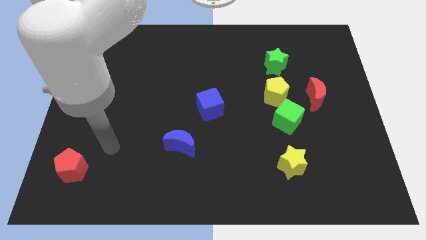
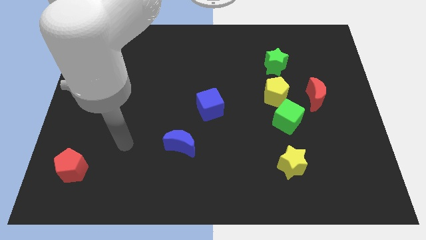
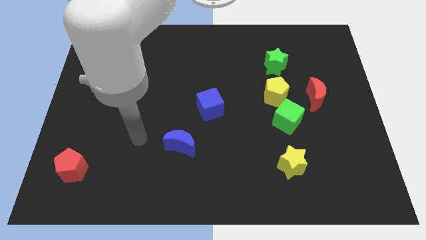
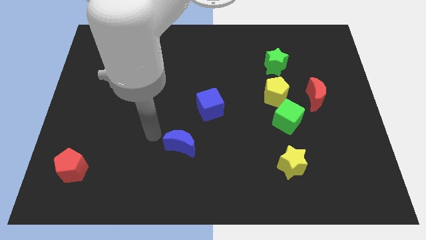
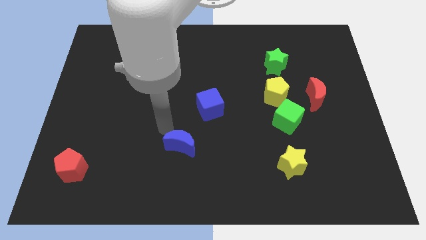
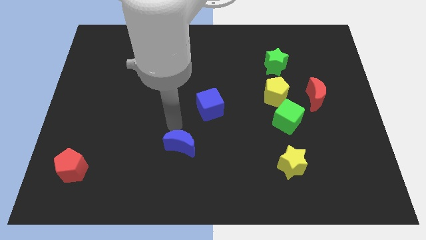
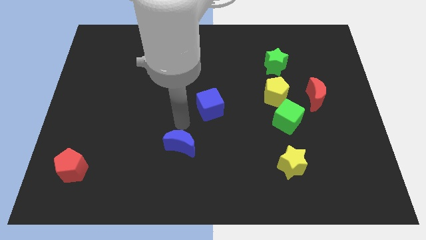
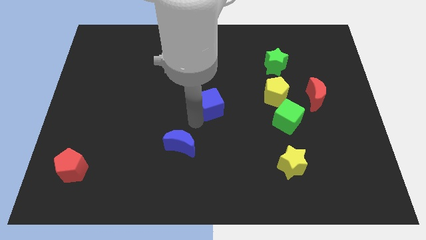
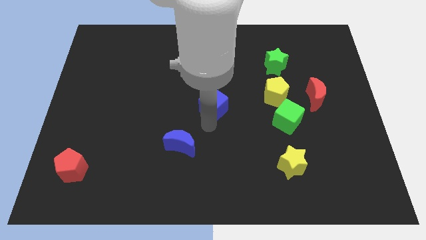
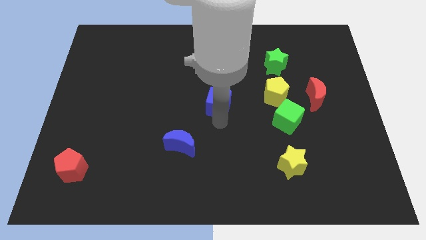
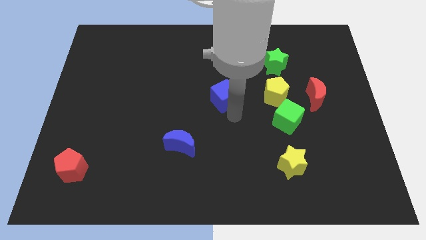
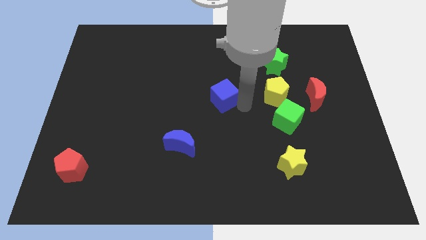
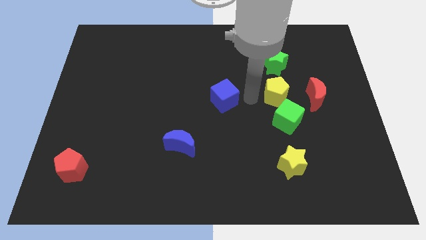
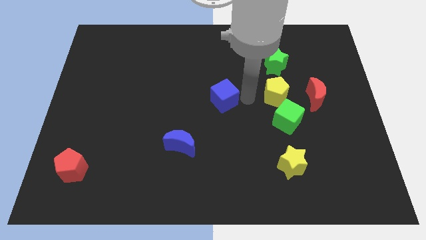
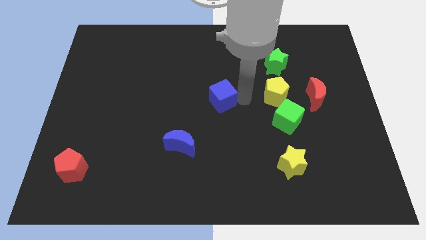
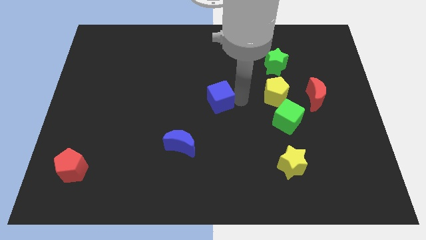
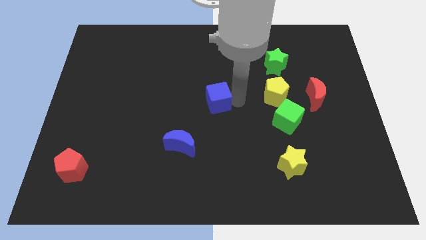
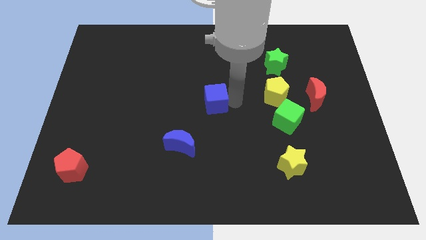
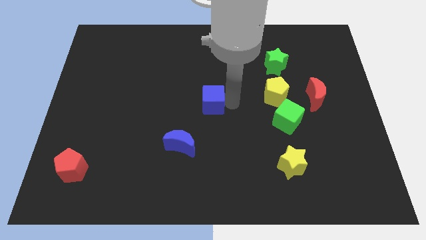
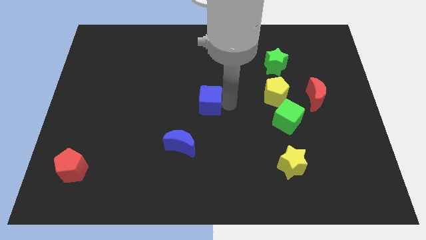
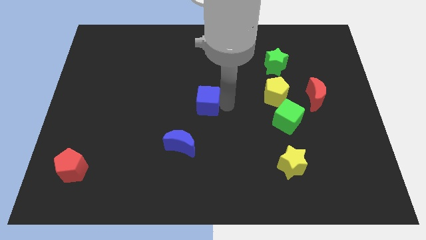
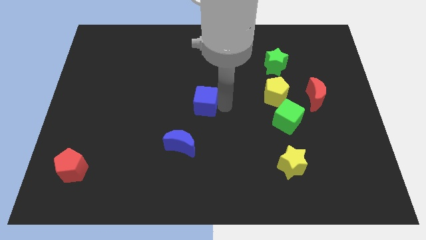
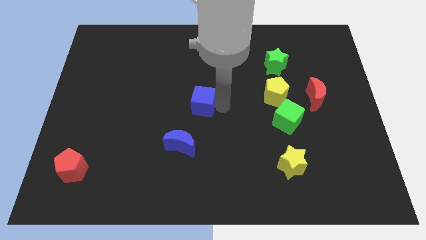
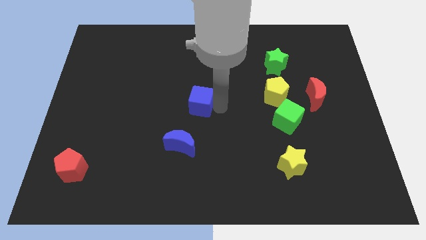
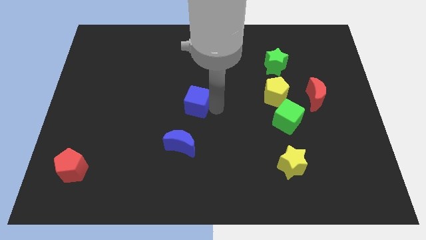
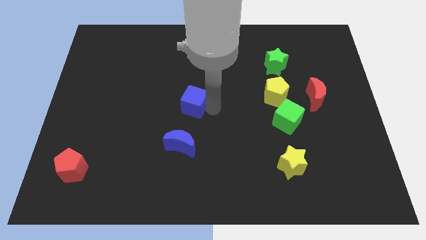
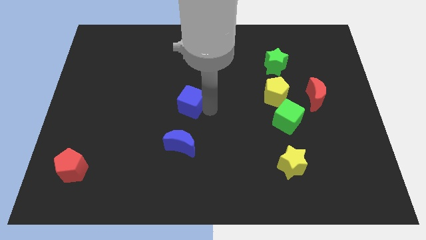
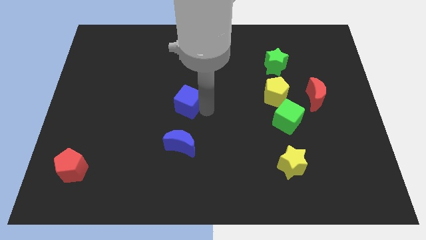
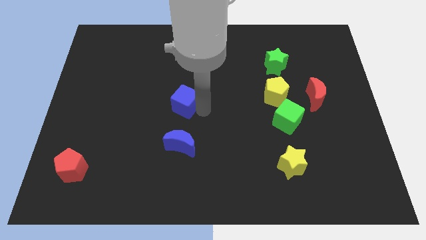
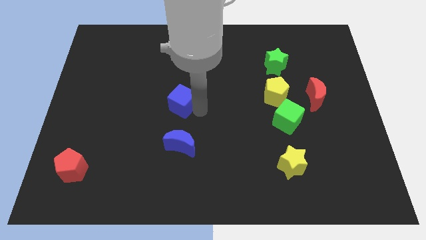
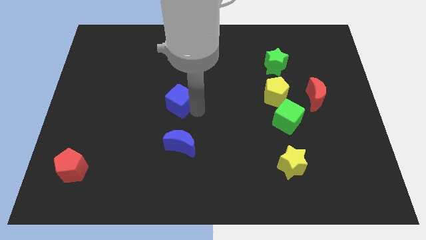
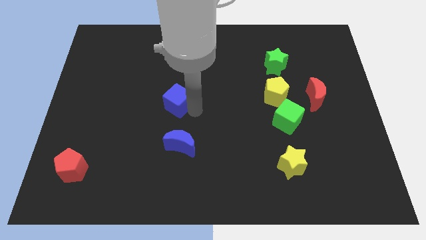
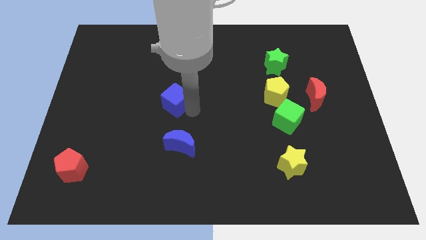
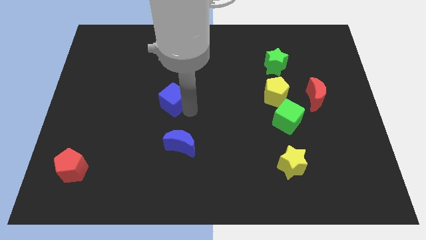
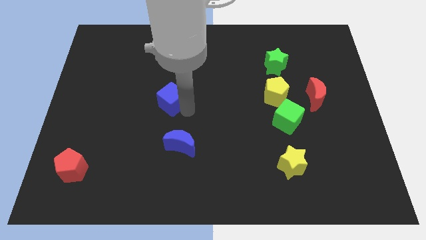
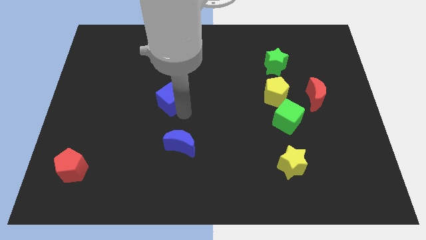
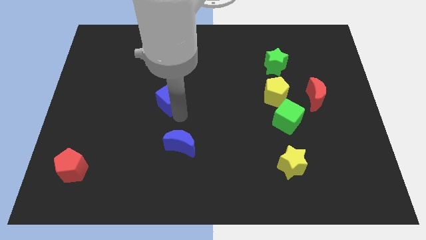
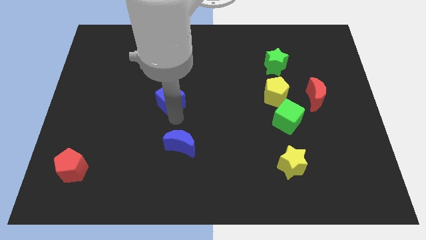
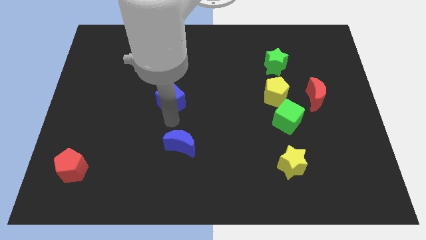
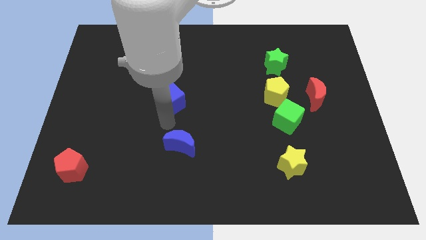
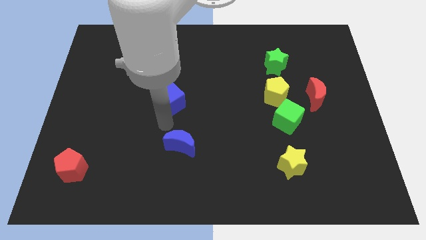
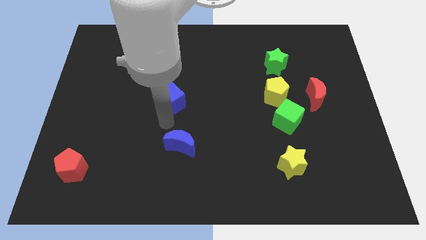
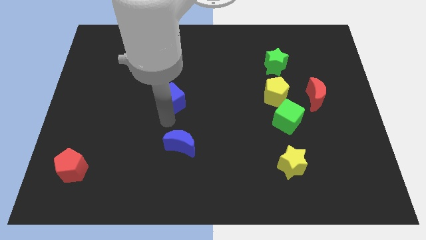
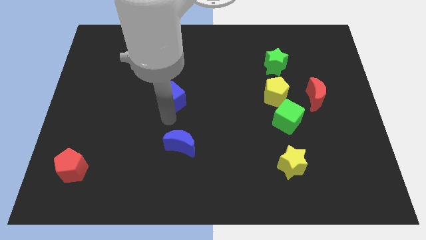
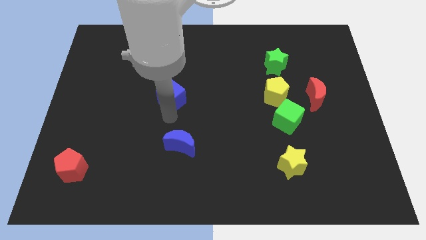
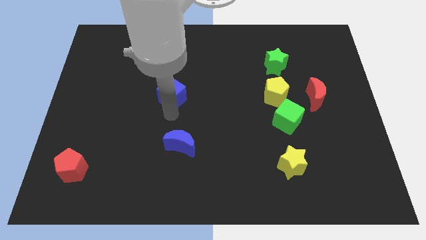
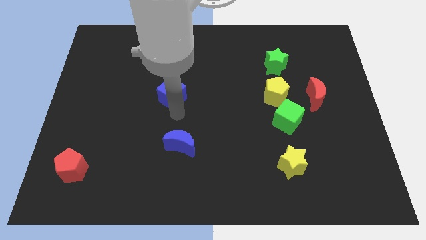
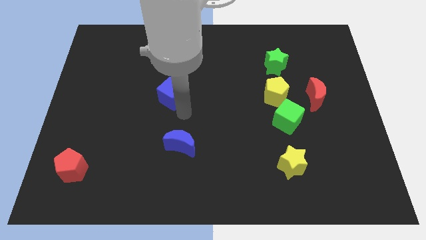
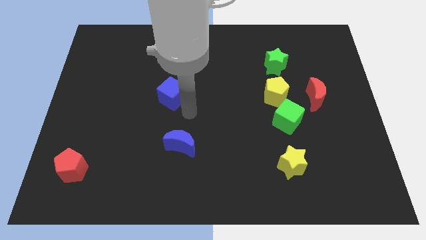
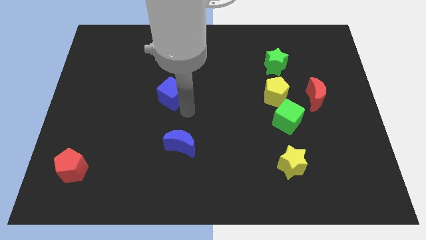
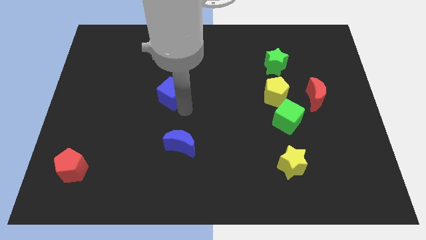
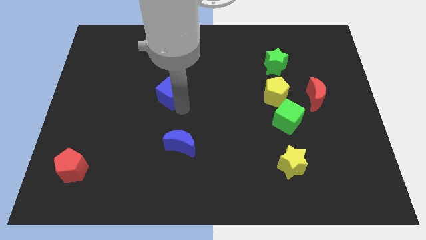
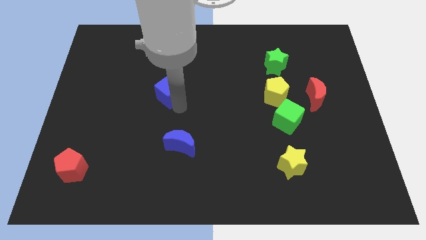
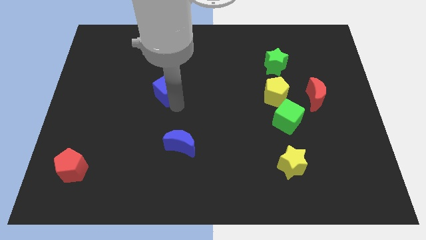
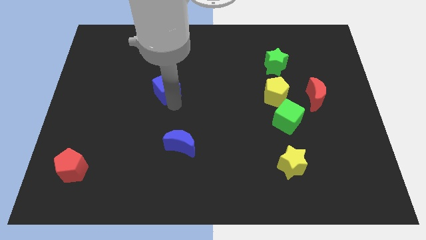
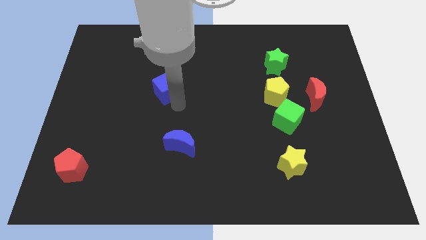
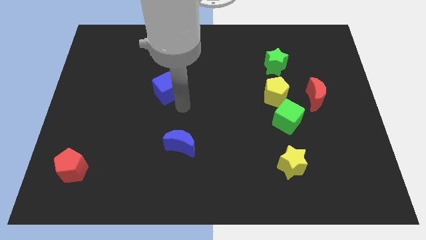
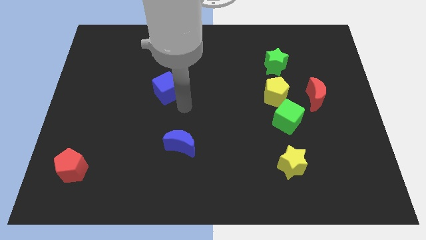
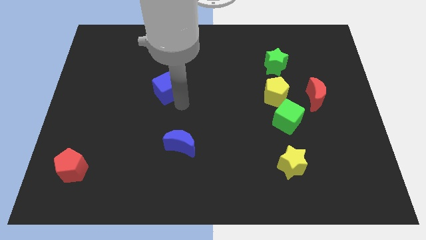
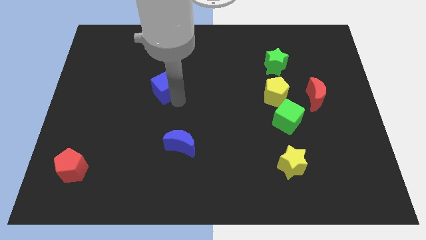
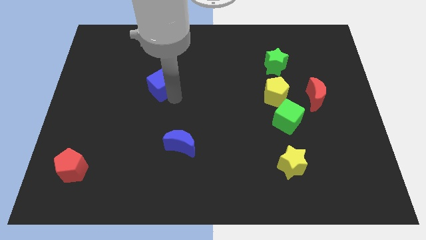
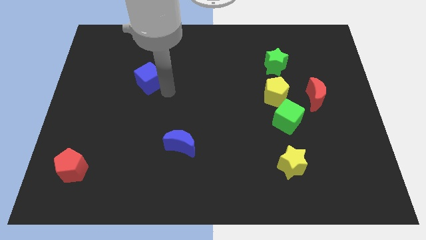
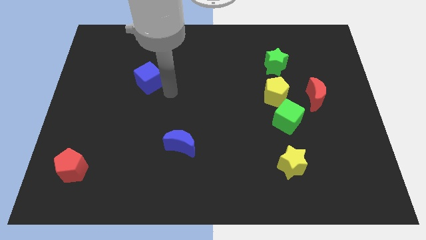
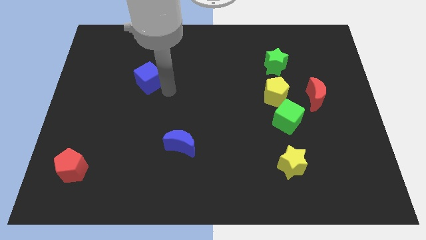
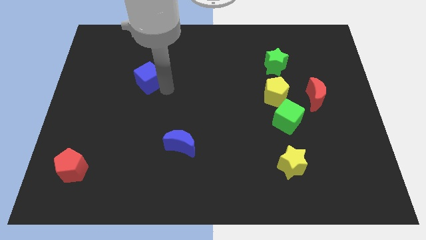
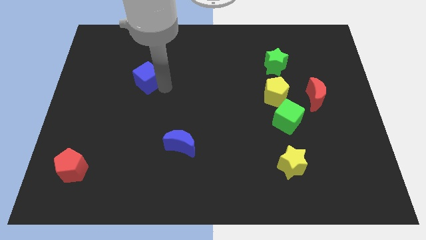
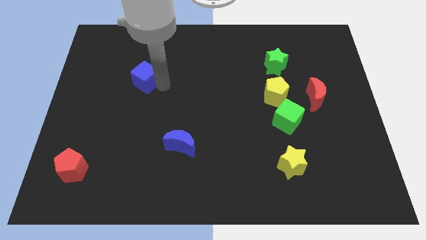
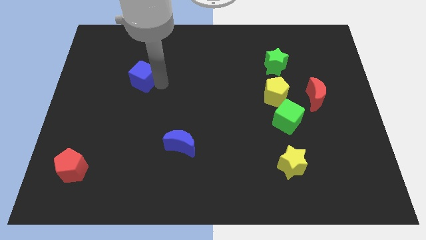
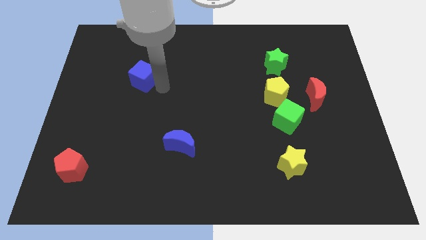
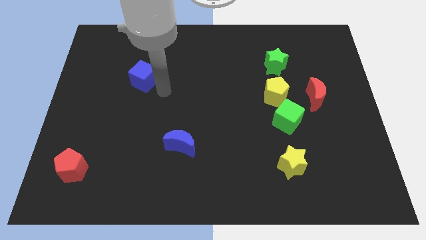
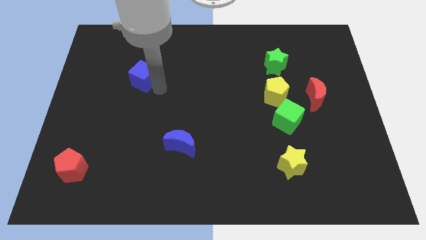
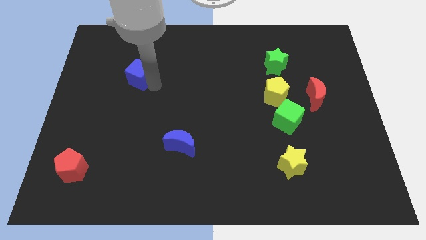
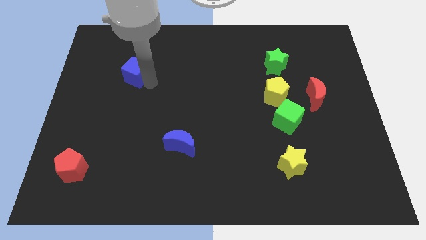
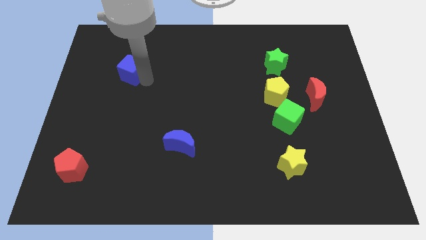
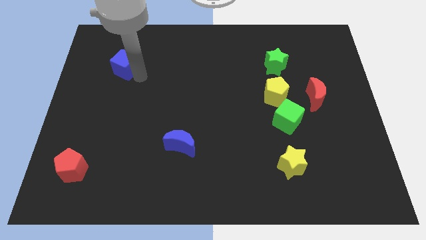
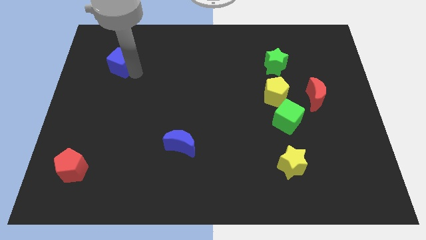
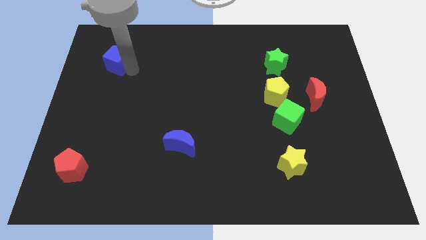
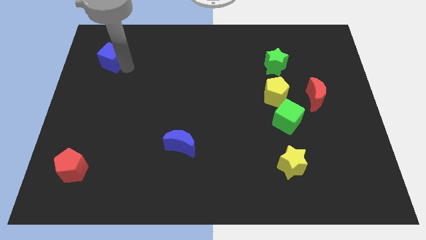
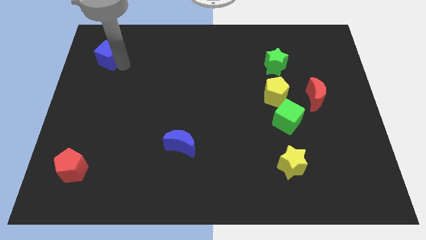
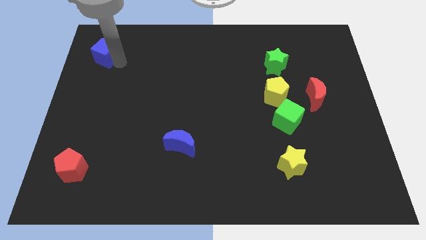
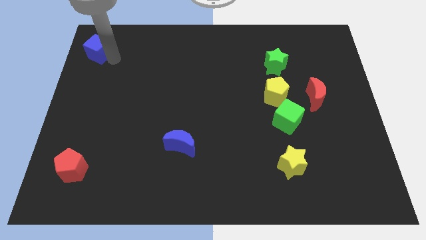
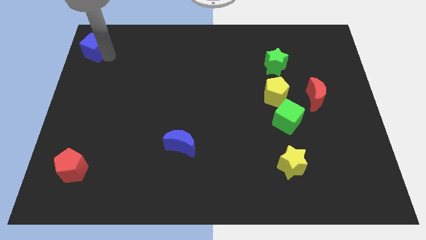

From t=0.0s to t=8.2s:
move the blue cube to the top left of the board
